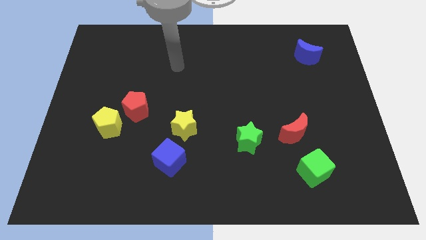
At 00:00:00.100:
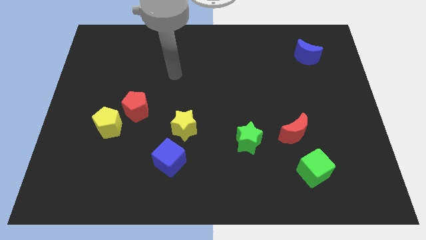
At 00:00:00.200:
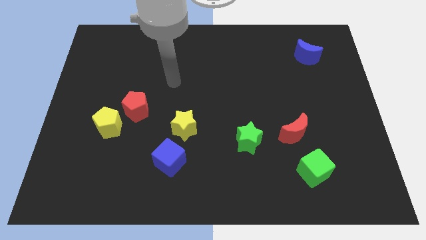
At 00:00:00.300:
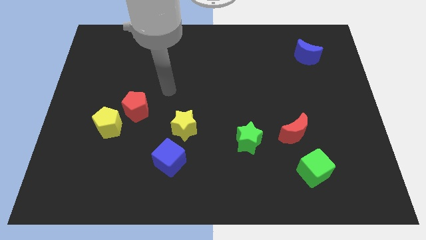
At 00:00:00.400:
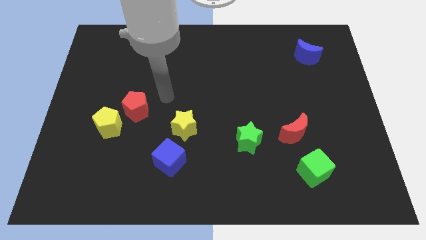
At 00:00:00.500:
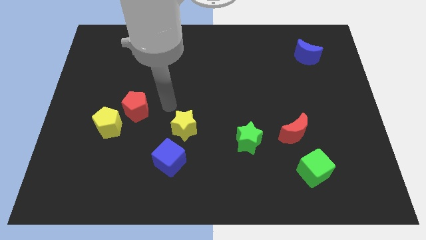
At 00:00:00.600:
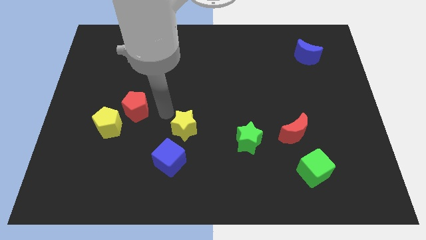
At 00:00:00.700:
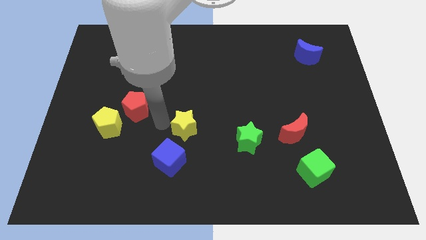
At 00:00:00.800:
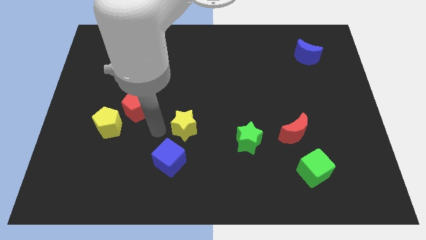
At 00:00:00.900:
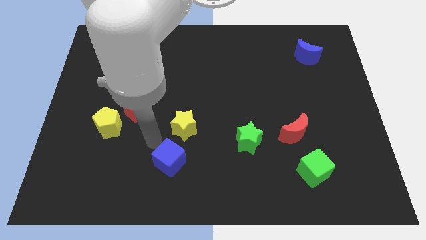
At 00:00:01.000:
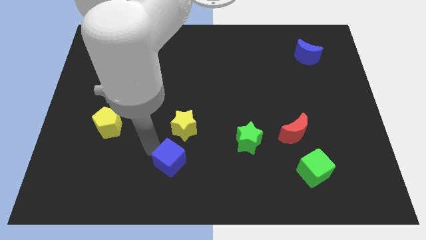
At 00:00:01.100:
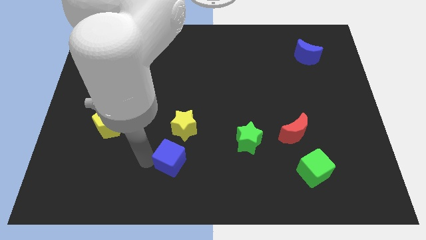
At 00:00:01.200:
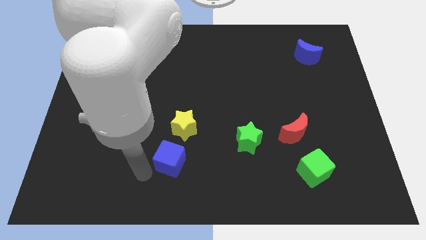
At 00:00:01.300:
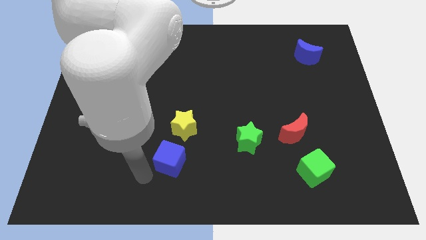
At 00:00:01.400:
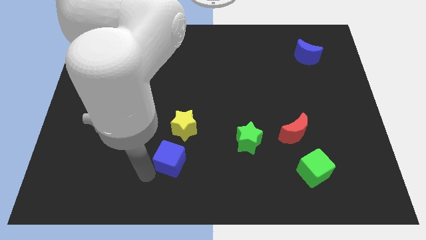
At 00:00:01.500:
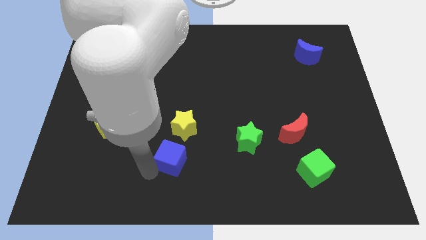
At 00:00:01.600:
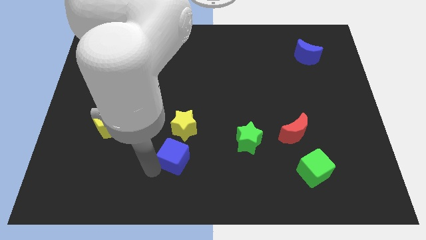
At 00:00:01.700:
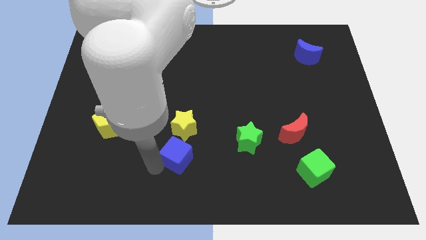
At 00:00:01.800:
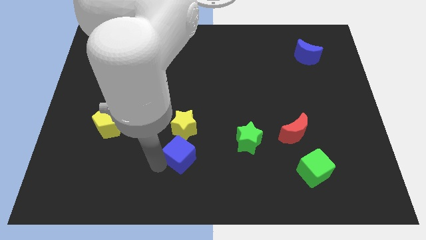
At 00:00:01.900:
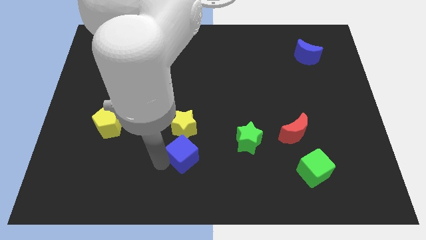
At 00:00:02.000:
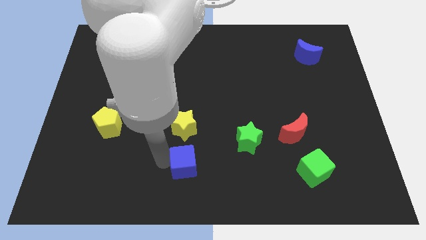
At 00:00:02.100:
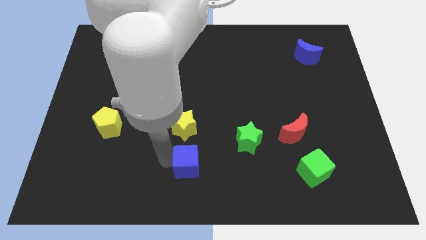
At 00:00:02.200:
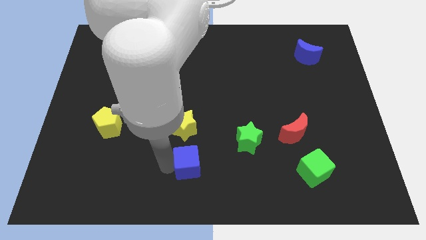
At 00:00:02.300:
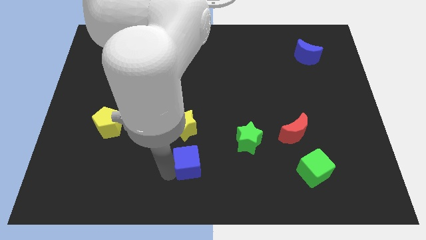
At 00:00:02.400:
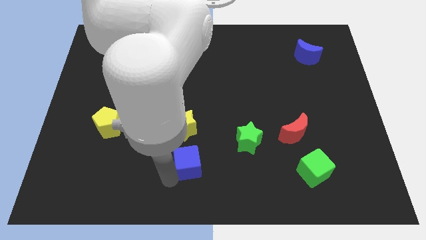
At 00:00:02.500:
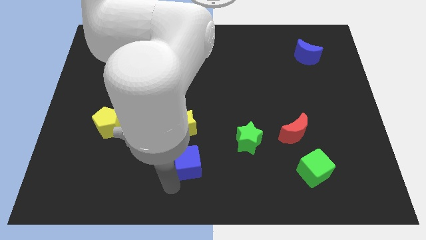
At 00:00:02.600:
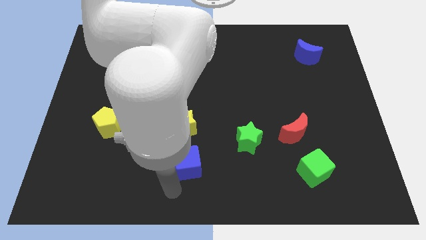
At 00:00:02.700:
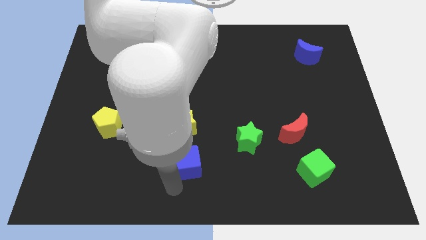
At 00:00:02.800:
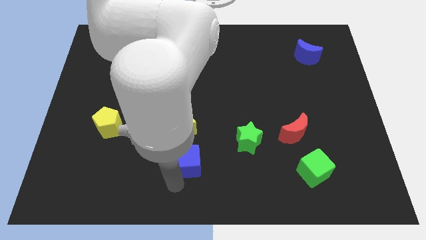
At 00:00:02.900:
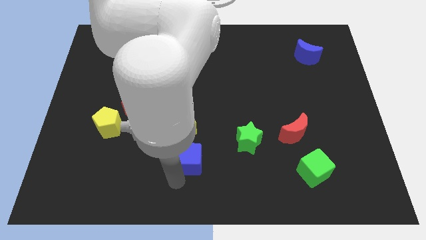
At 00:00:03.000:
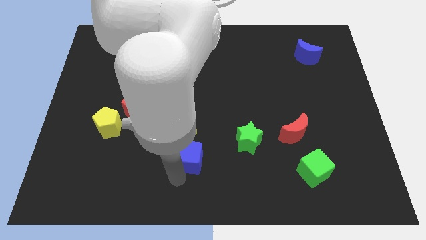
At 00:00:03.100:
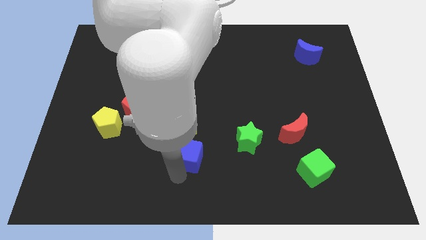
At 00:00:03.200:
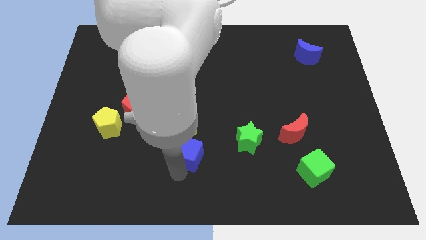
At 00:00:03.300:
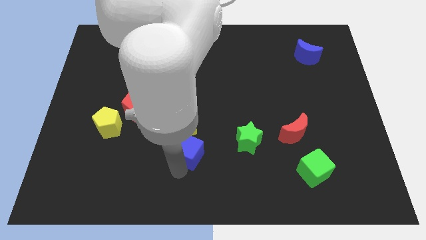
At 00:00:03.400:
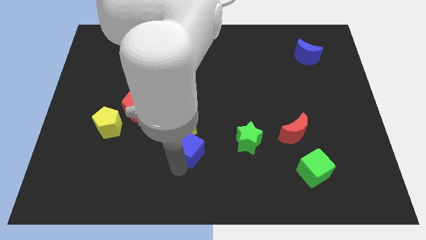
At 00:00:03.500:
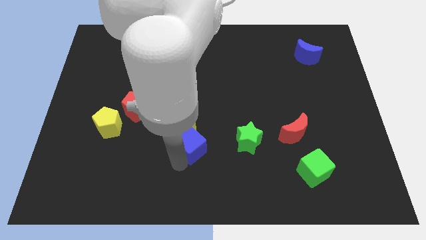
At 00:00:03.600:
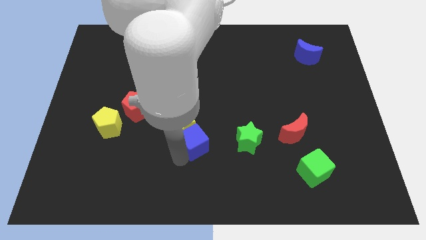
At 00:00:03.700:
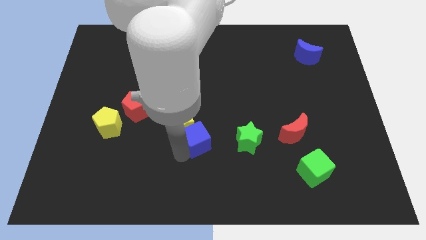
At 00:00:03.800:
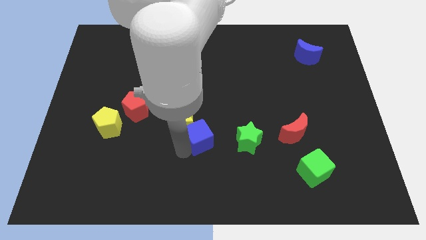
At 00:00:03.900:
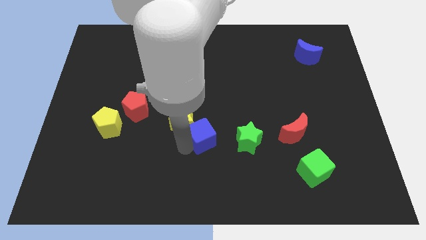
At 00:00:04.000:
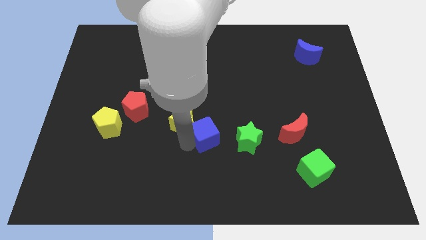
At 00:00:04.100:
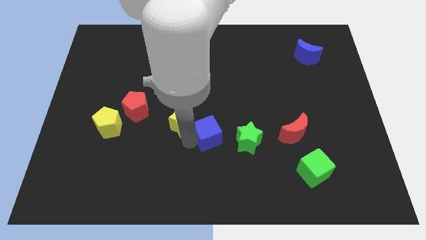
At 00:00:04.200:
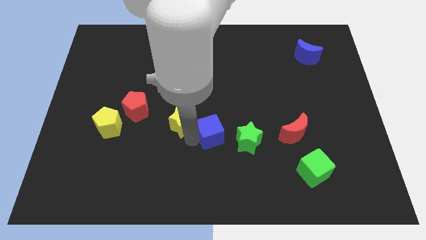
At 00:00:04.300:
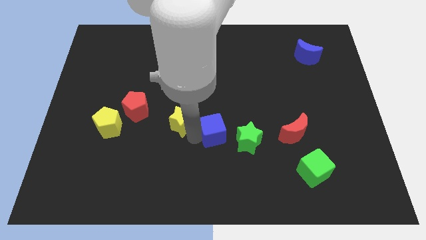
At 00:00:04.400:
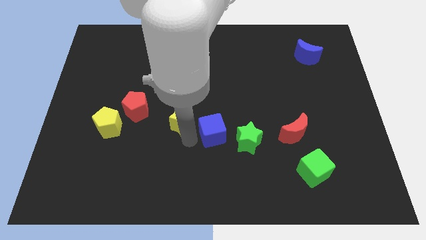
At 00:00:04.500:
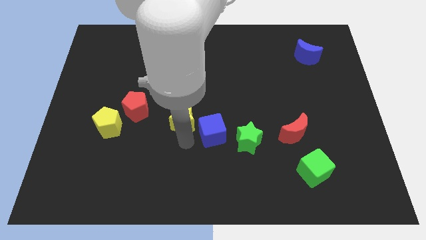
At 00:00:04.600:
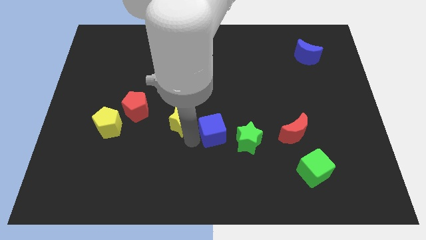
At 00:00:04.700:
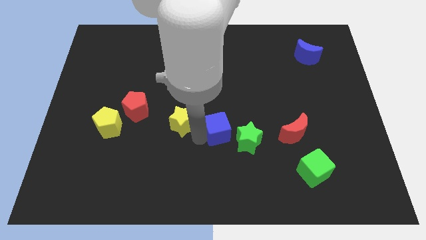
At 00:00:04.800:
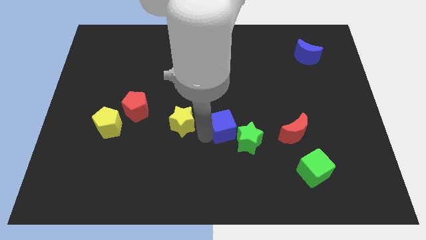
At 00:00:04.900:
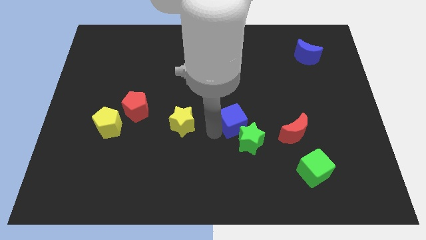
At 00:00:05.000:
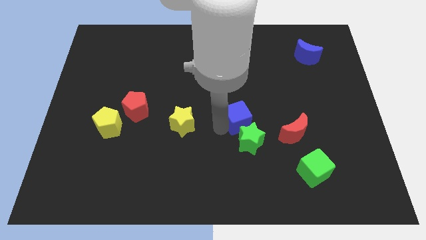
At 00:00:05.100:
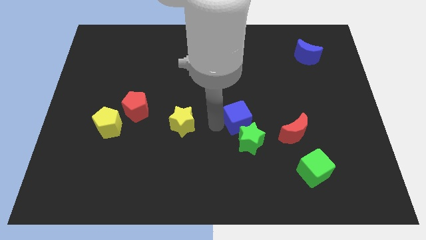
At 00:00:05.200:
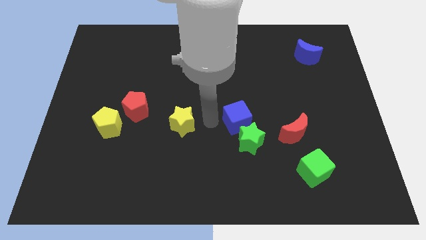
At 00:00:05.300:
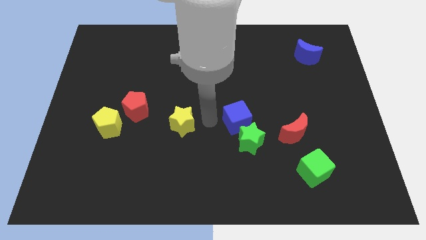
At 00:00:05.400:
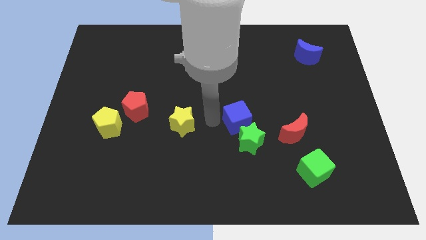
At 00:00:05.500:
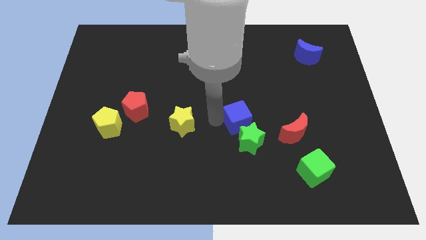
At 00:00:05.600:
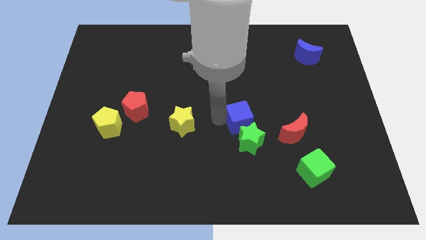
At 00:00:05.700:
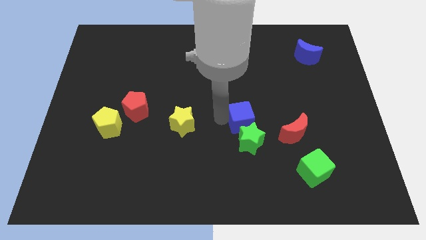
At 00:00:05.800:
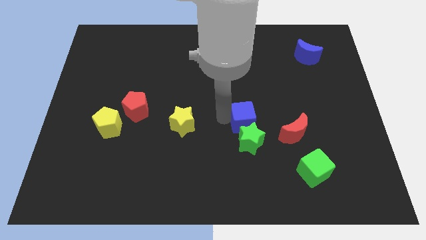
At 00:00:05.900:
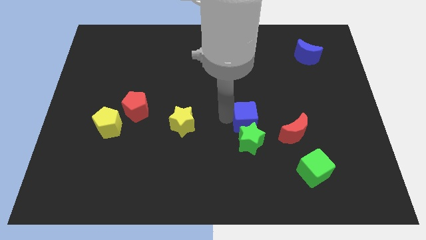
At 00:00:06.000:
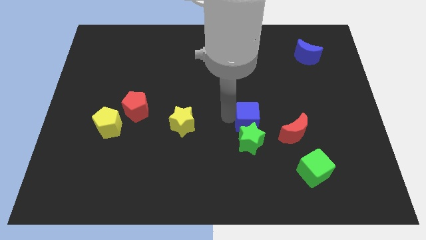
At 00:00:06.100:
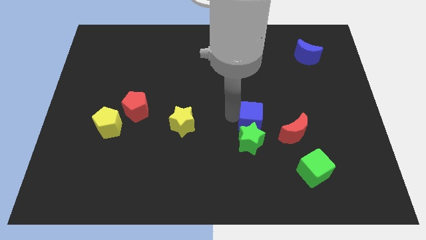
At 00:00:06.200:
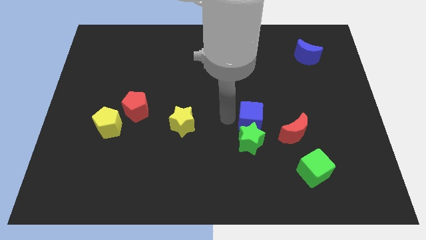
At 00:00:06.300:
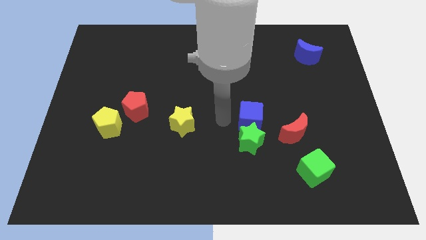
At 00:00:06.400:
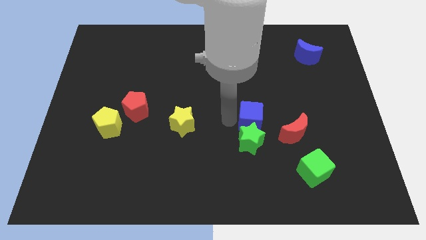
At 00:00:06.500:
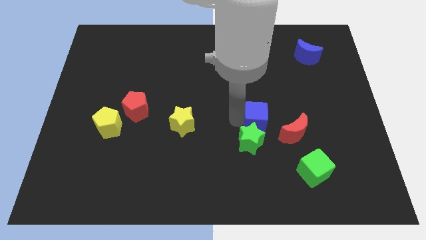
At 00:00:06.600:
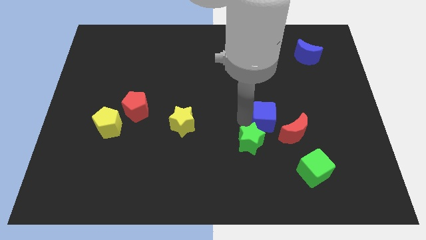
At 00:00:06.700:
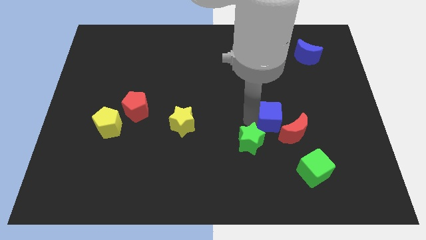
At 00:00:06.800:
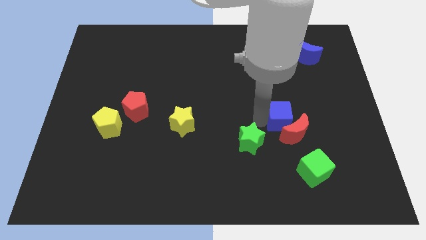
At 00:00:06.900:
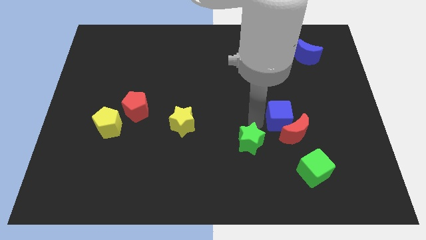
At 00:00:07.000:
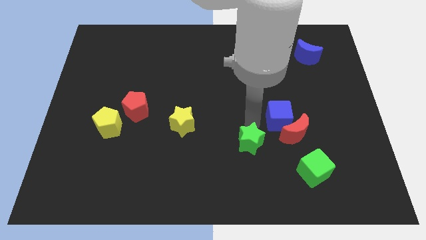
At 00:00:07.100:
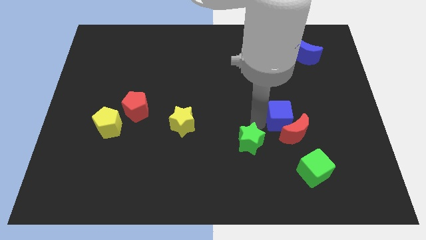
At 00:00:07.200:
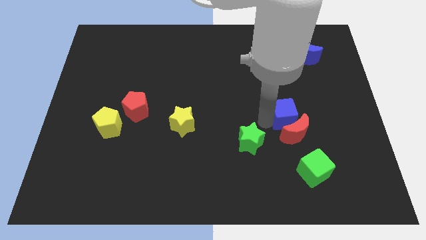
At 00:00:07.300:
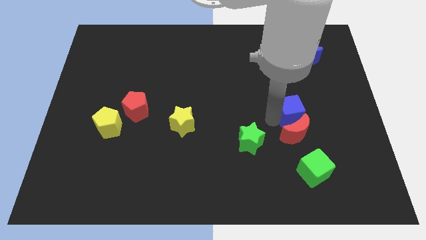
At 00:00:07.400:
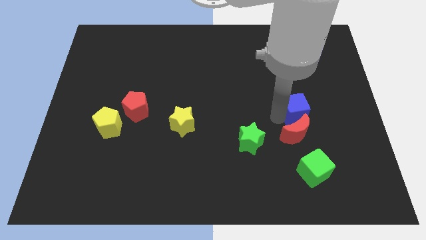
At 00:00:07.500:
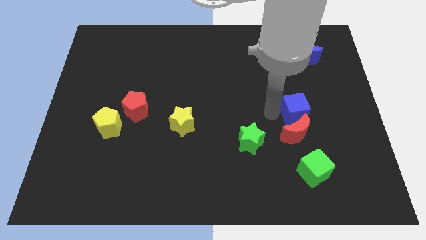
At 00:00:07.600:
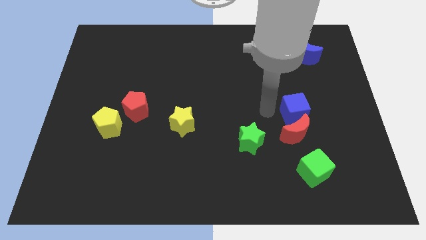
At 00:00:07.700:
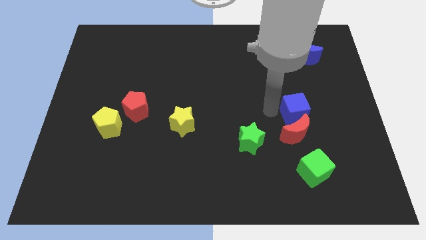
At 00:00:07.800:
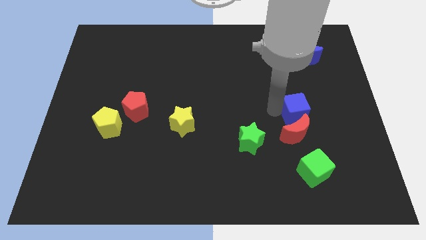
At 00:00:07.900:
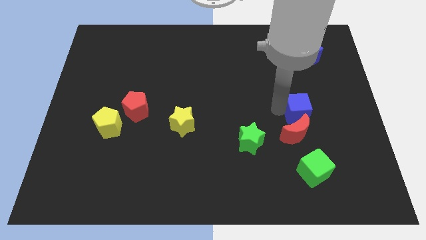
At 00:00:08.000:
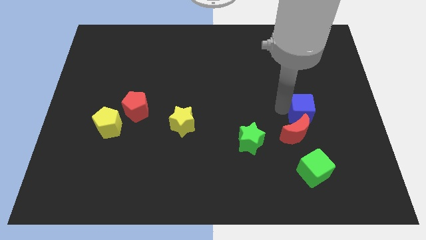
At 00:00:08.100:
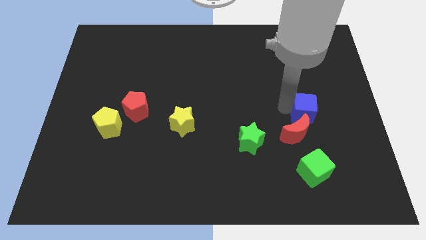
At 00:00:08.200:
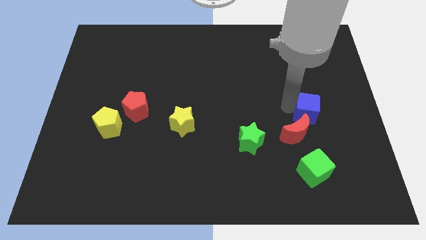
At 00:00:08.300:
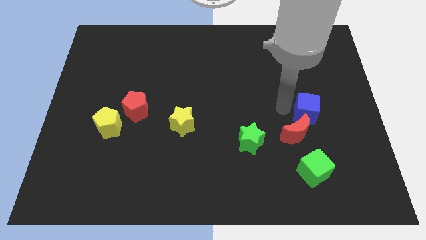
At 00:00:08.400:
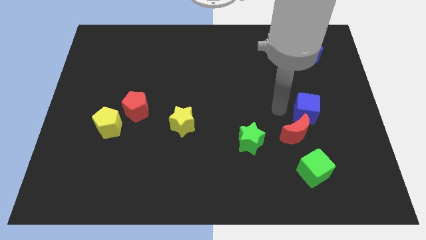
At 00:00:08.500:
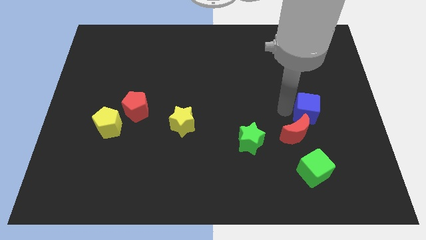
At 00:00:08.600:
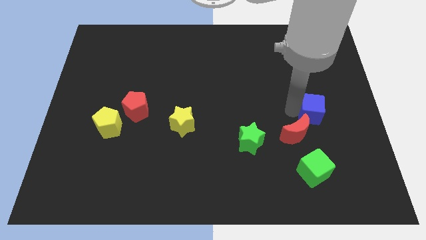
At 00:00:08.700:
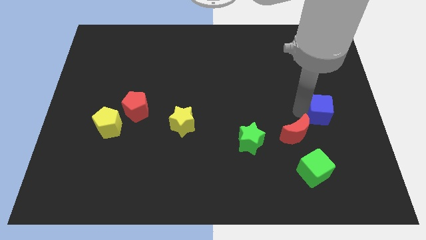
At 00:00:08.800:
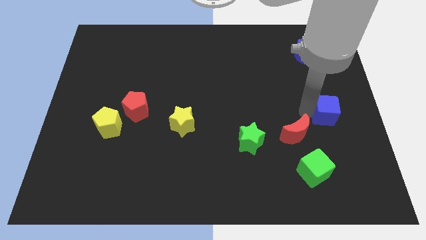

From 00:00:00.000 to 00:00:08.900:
move the blue cube to the right side
